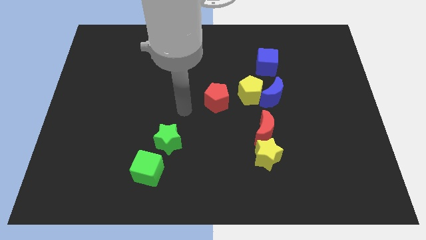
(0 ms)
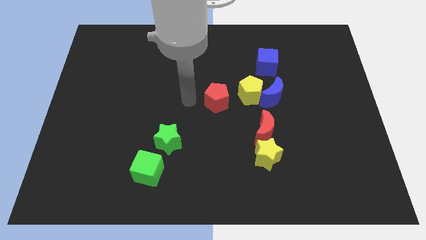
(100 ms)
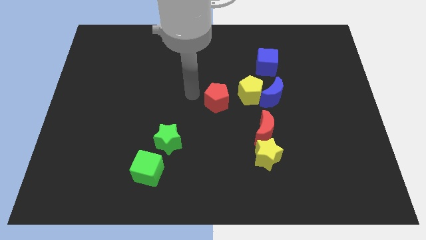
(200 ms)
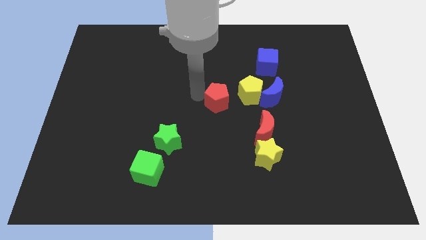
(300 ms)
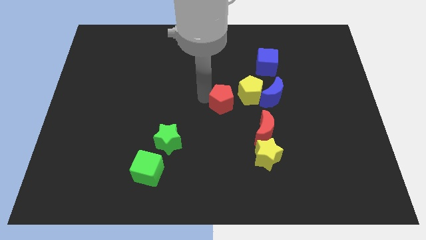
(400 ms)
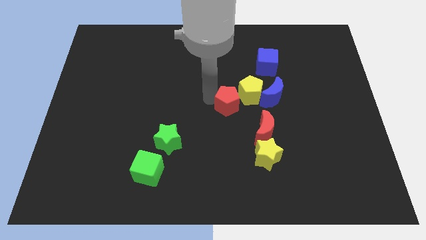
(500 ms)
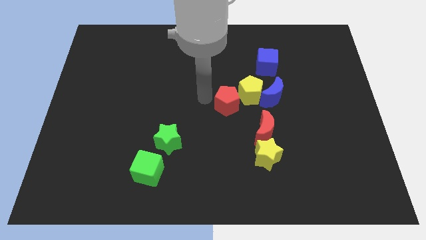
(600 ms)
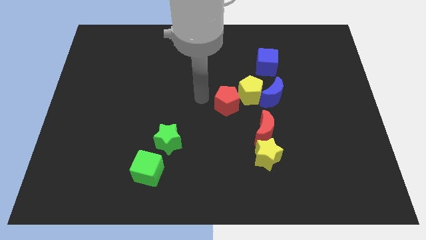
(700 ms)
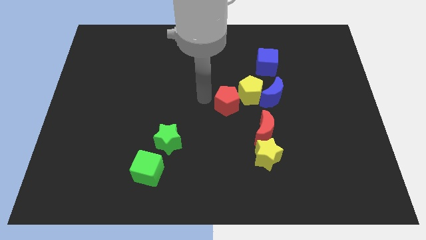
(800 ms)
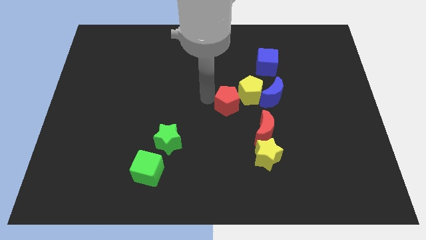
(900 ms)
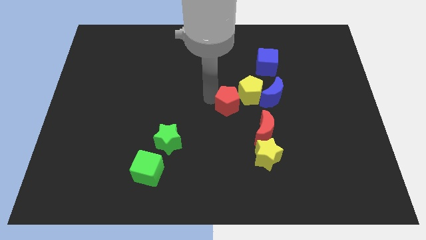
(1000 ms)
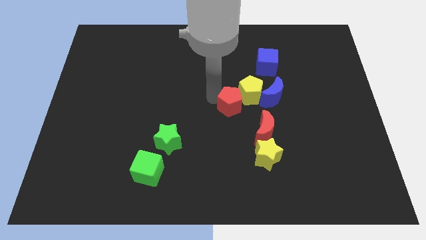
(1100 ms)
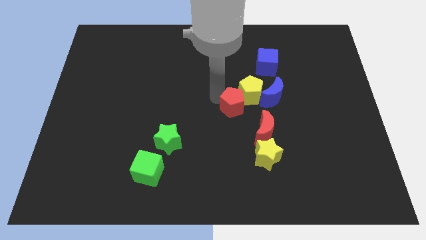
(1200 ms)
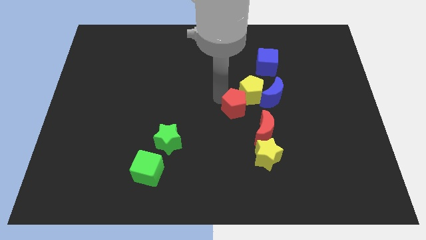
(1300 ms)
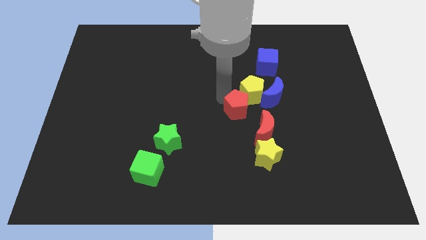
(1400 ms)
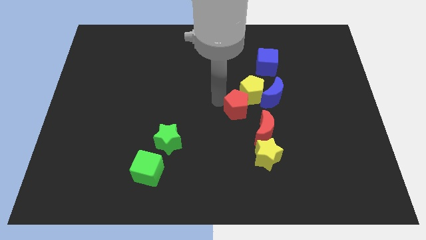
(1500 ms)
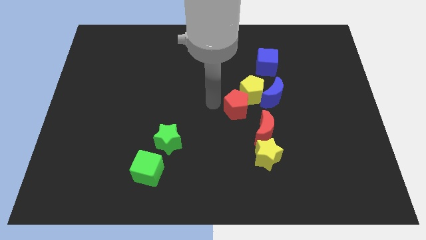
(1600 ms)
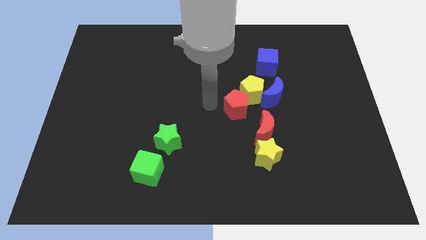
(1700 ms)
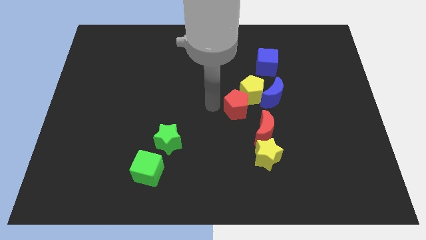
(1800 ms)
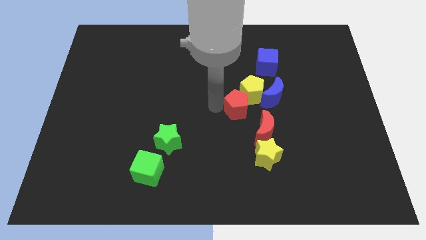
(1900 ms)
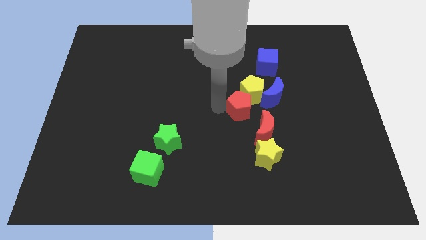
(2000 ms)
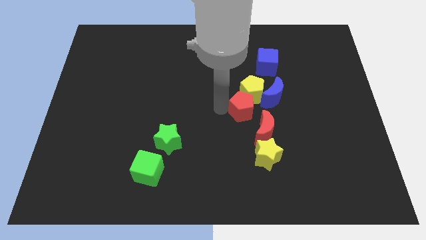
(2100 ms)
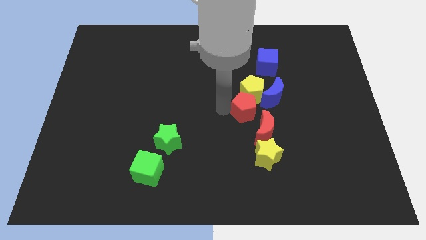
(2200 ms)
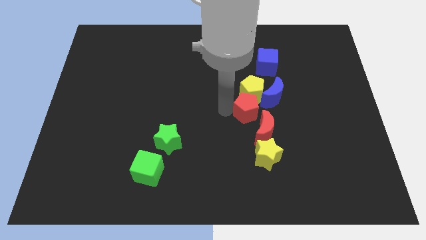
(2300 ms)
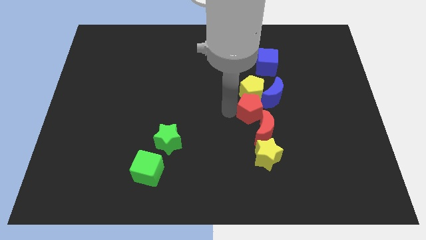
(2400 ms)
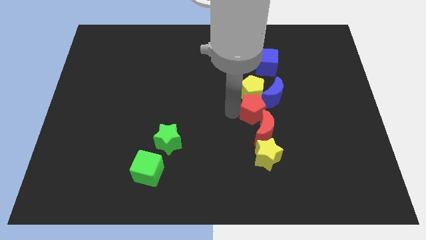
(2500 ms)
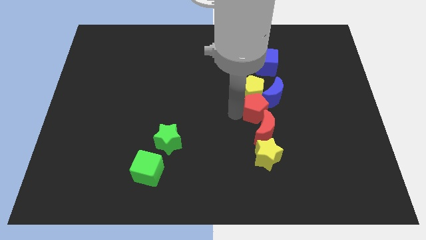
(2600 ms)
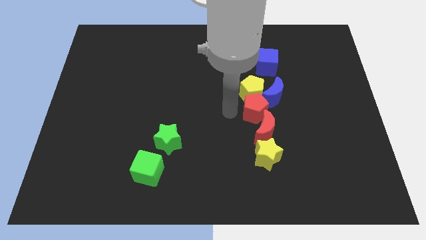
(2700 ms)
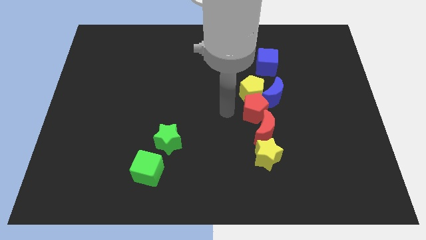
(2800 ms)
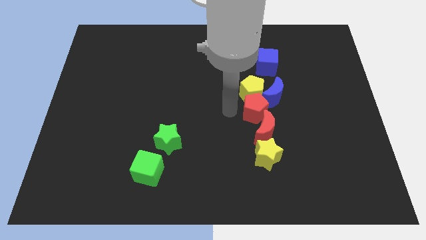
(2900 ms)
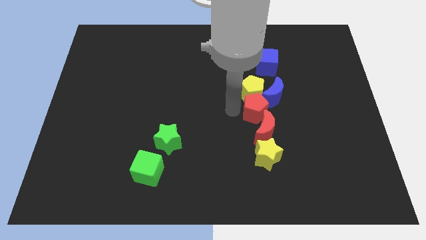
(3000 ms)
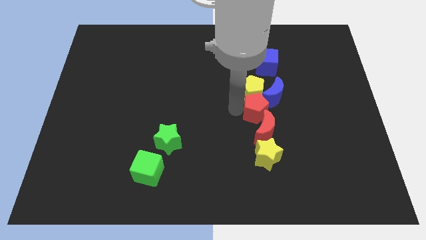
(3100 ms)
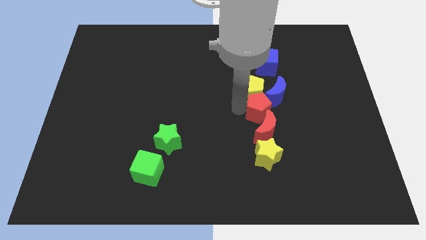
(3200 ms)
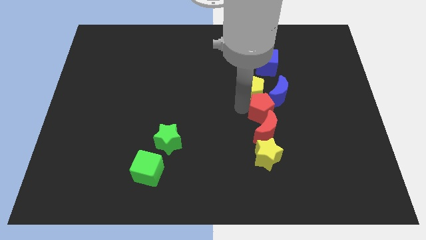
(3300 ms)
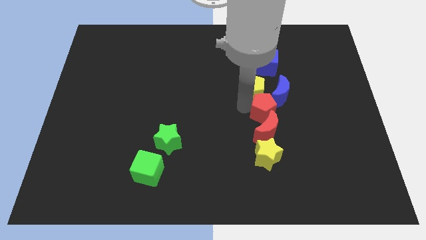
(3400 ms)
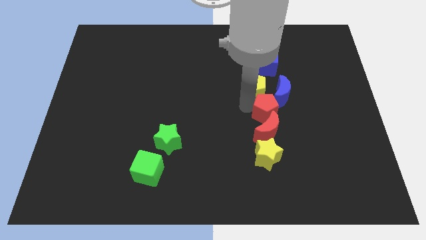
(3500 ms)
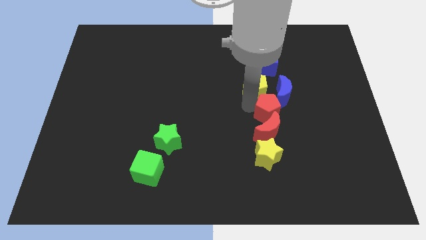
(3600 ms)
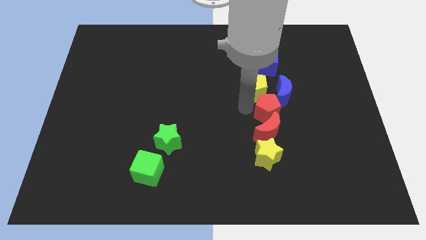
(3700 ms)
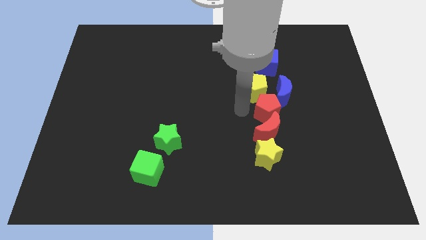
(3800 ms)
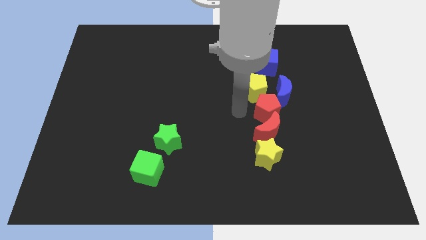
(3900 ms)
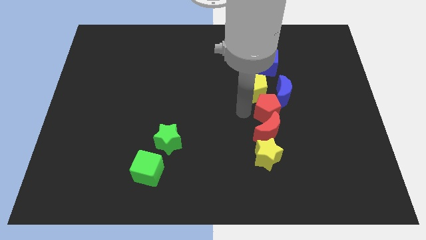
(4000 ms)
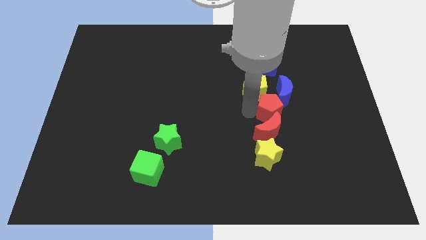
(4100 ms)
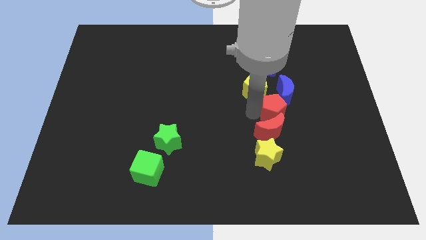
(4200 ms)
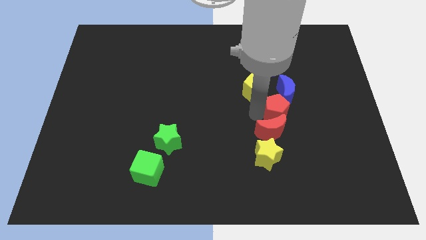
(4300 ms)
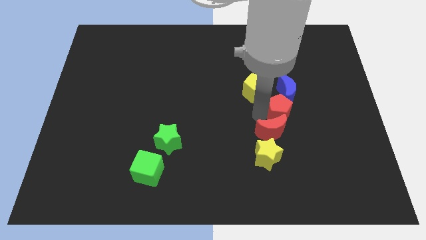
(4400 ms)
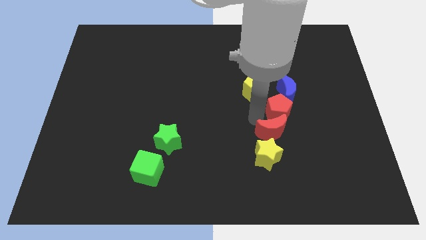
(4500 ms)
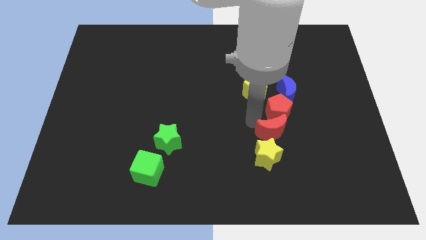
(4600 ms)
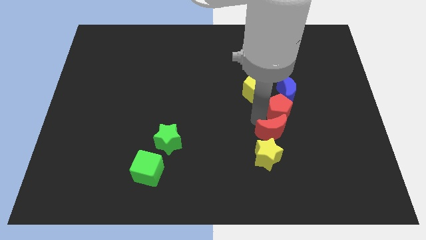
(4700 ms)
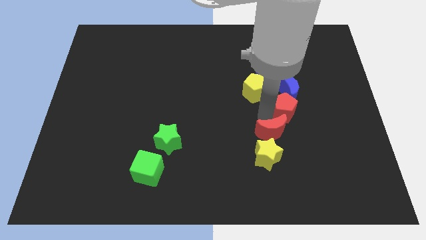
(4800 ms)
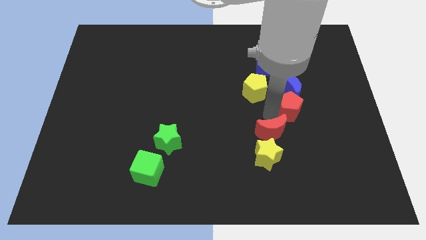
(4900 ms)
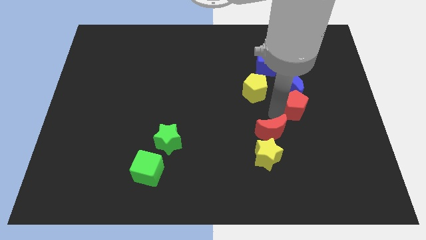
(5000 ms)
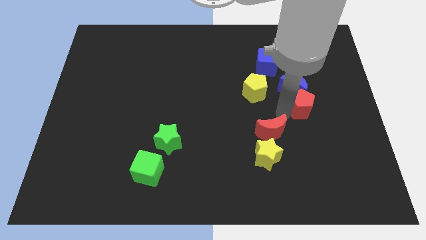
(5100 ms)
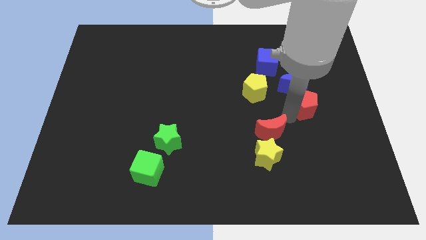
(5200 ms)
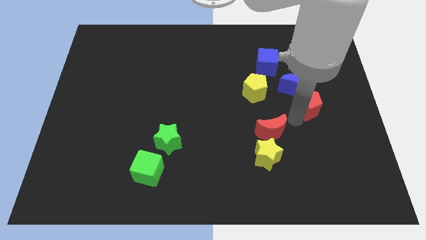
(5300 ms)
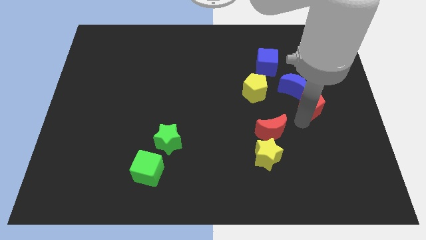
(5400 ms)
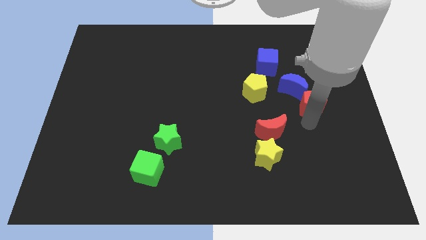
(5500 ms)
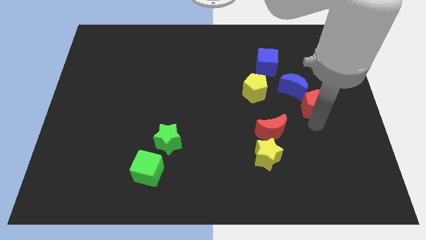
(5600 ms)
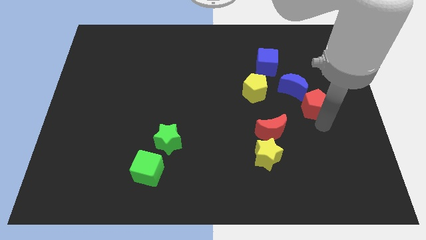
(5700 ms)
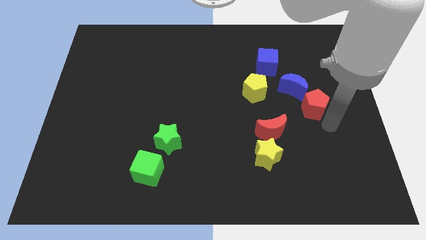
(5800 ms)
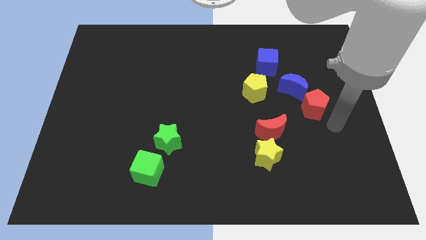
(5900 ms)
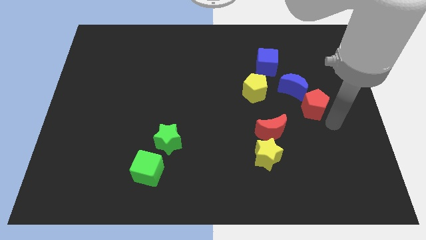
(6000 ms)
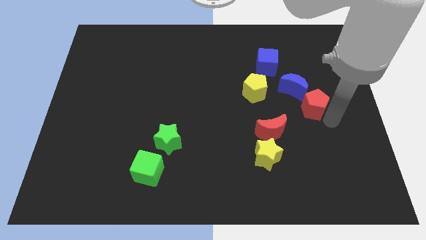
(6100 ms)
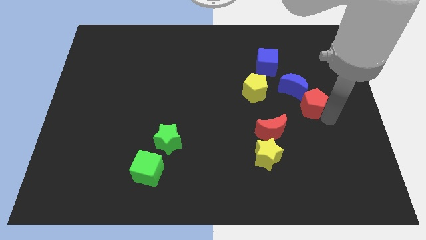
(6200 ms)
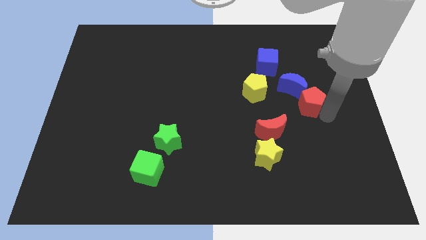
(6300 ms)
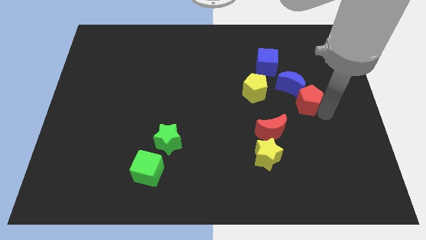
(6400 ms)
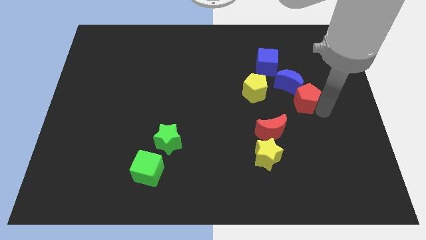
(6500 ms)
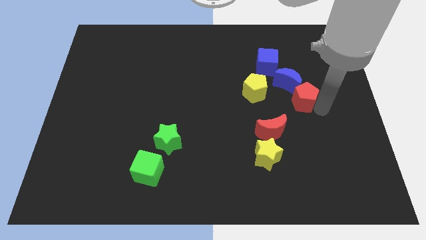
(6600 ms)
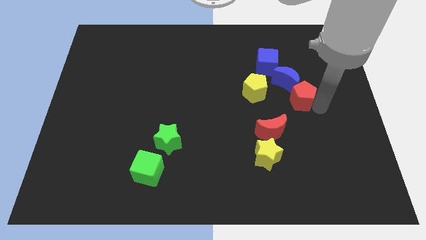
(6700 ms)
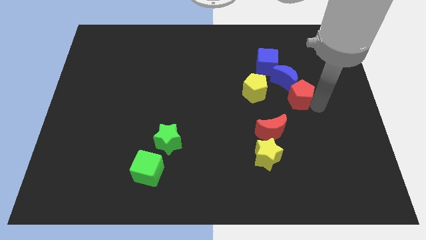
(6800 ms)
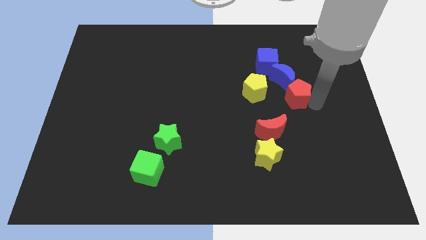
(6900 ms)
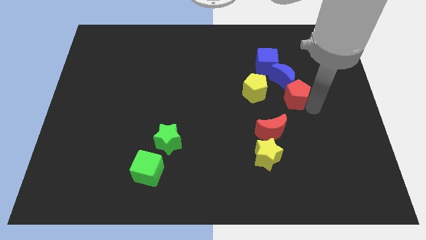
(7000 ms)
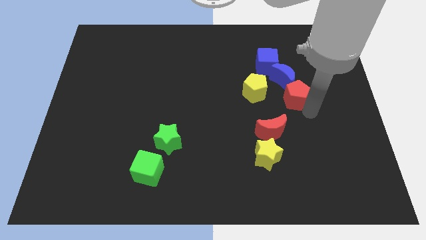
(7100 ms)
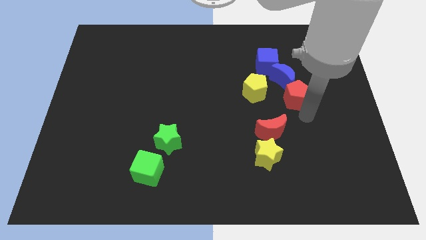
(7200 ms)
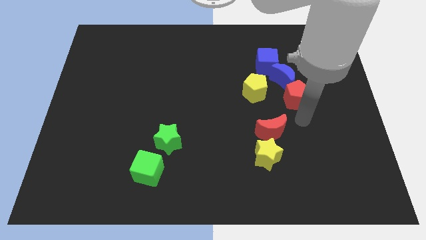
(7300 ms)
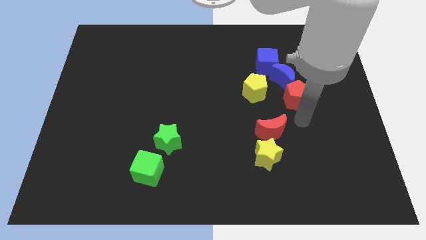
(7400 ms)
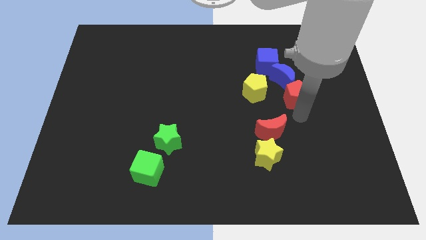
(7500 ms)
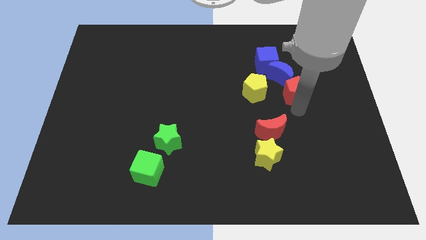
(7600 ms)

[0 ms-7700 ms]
put the red pentagon to the bottom right of the blue cube
